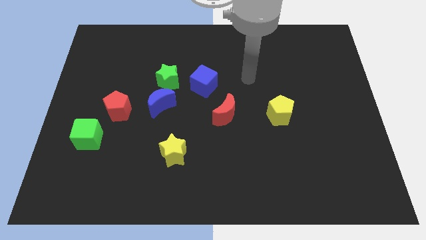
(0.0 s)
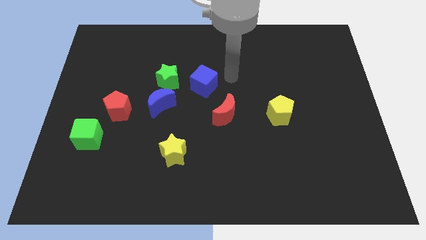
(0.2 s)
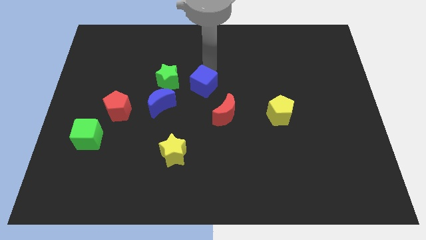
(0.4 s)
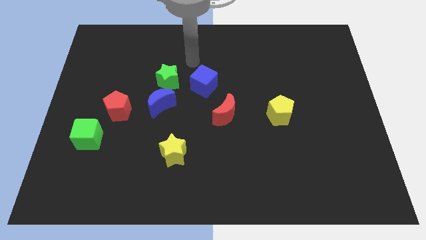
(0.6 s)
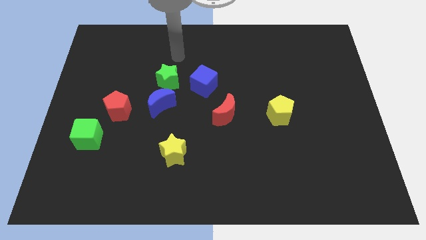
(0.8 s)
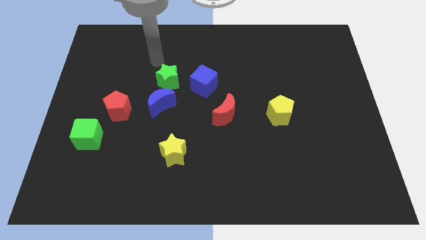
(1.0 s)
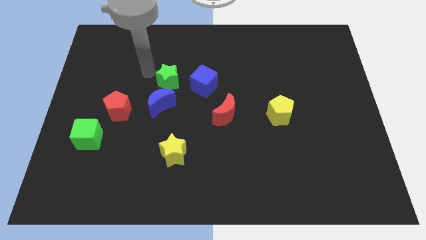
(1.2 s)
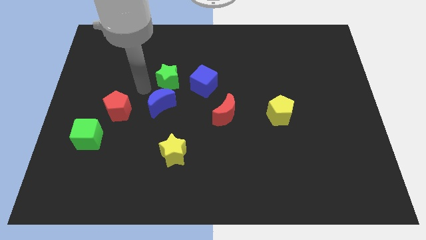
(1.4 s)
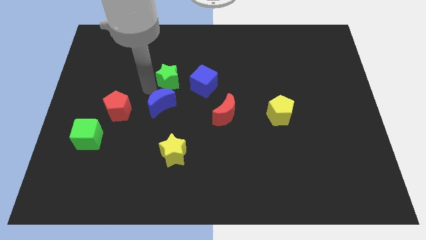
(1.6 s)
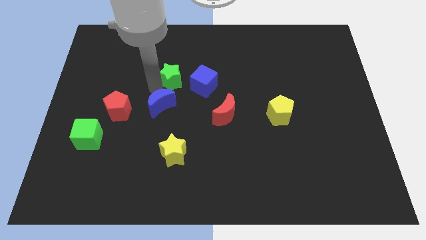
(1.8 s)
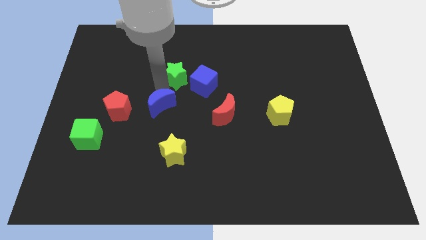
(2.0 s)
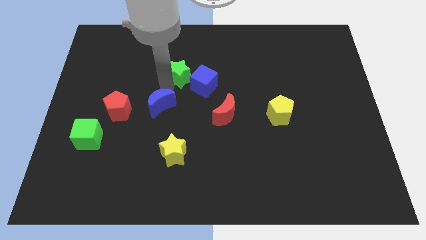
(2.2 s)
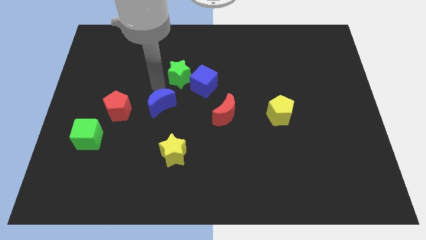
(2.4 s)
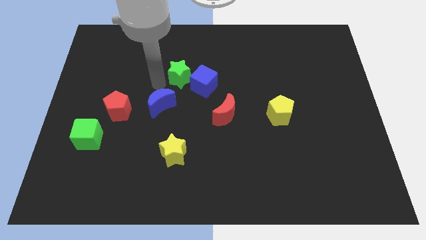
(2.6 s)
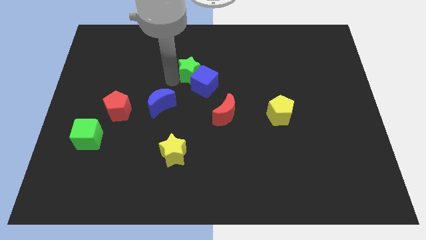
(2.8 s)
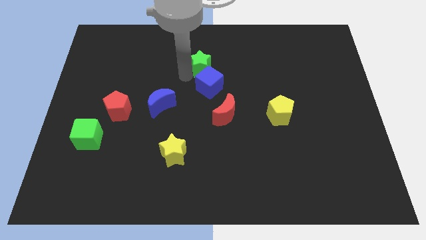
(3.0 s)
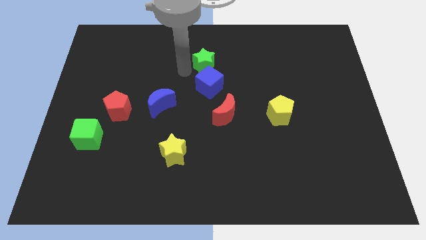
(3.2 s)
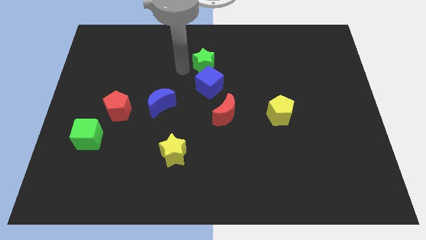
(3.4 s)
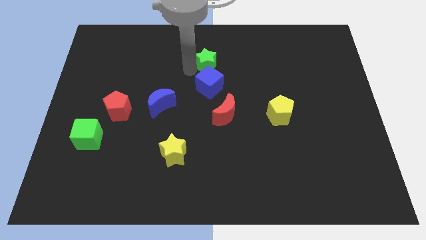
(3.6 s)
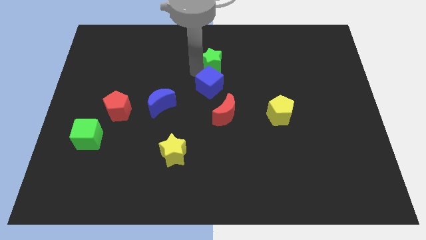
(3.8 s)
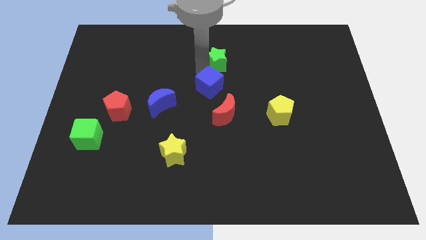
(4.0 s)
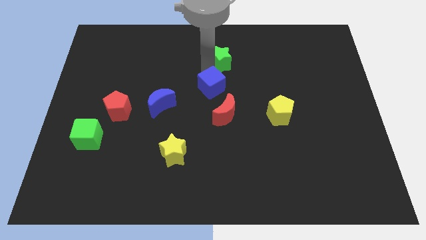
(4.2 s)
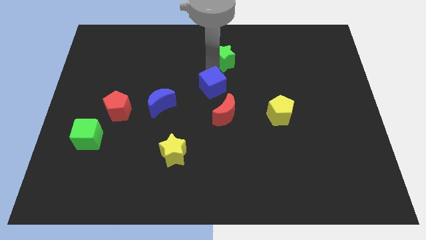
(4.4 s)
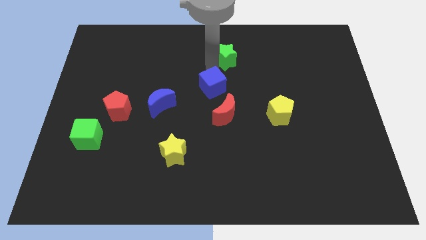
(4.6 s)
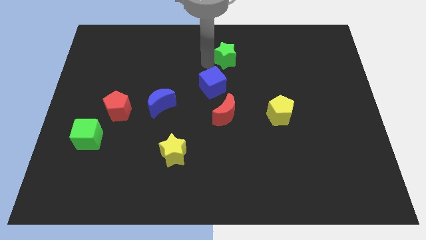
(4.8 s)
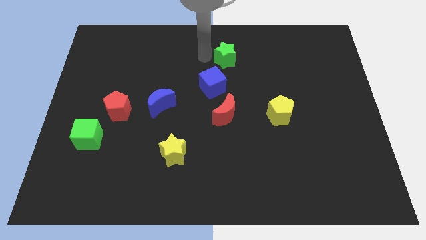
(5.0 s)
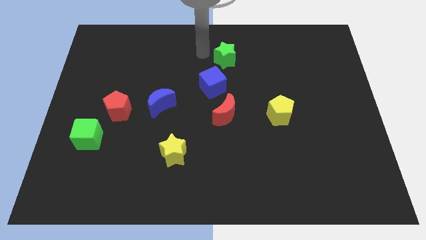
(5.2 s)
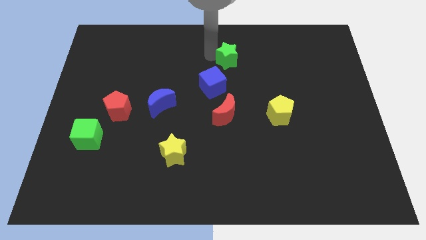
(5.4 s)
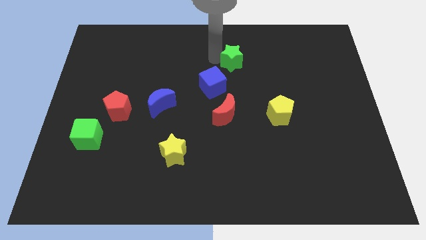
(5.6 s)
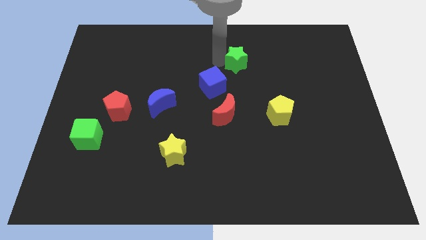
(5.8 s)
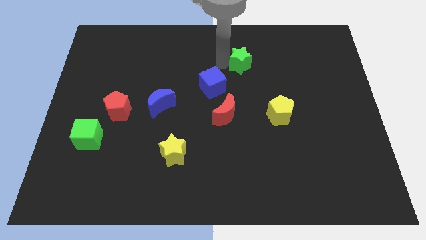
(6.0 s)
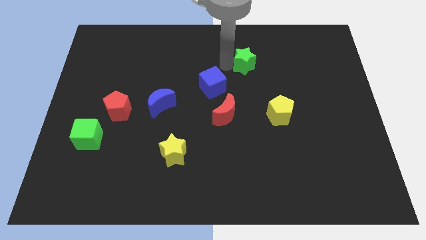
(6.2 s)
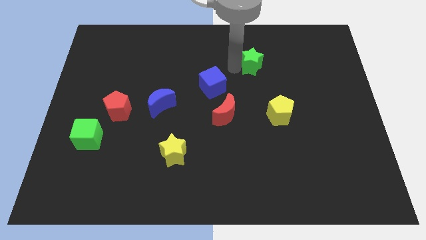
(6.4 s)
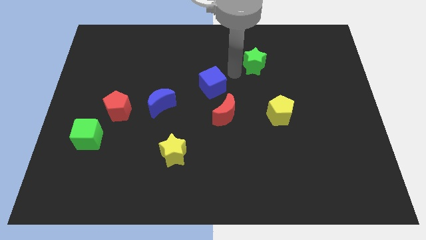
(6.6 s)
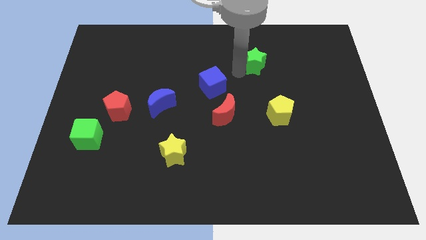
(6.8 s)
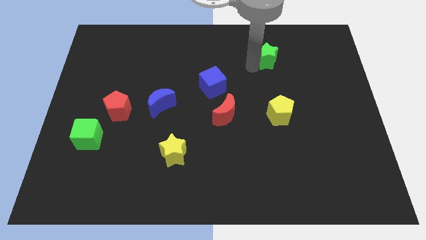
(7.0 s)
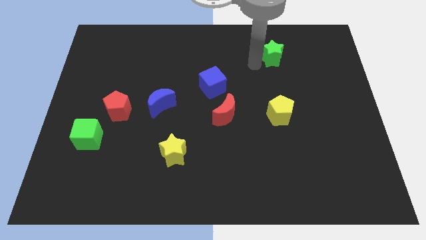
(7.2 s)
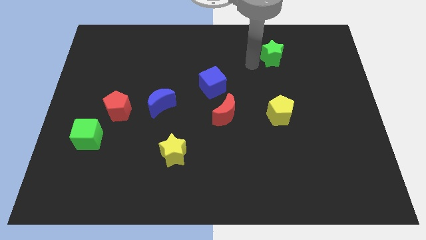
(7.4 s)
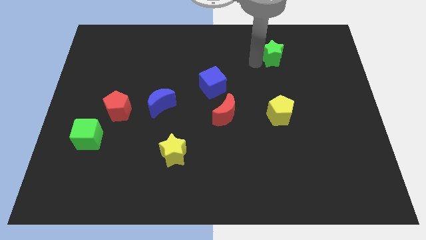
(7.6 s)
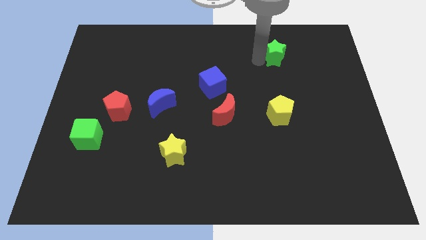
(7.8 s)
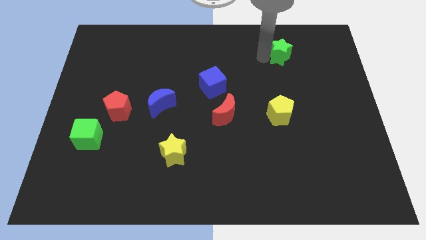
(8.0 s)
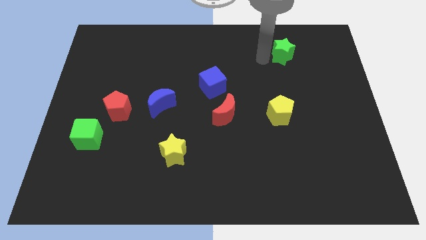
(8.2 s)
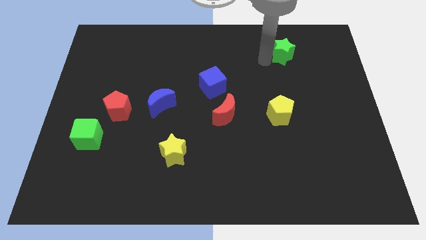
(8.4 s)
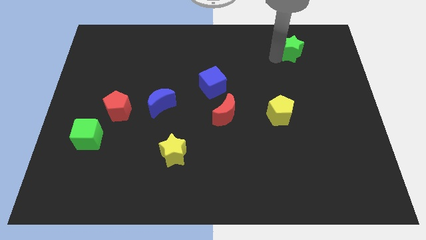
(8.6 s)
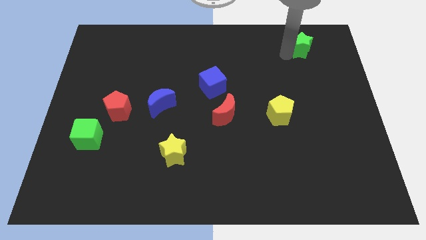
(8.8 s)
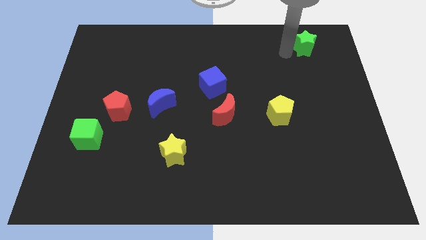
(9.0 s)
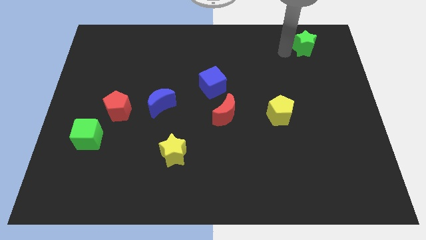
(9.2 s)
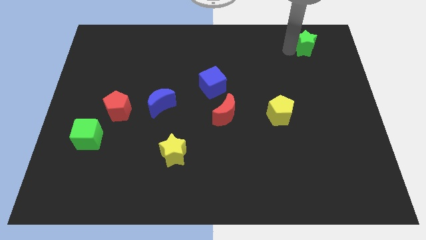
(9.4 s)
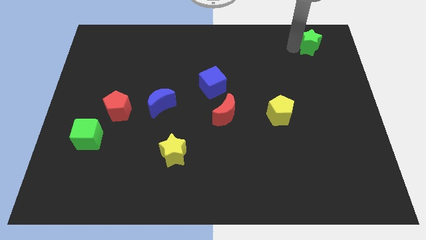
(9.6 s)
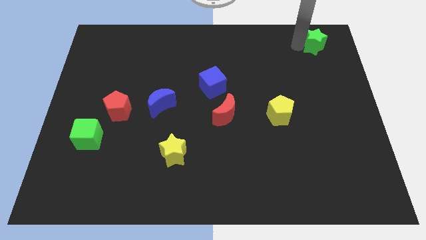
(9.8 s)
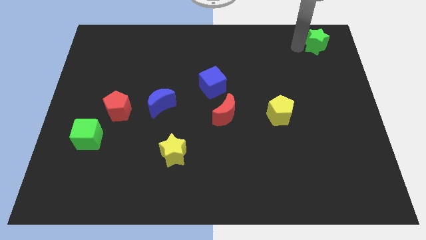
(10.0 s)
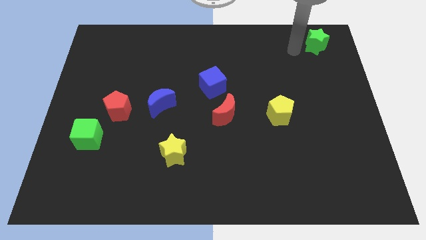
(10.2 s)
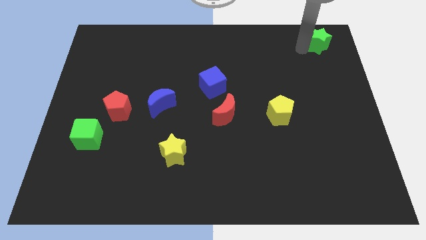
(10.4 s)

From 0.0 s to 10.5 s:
put the green star to the top right of the board
